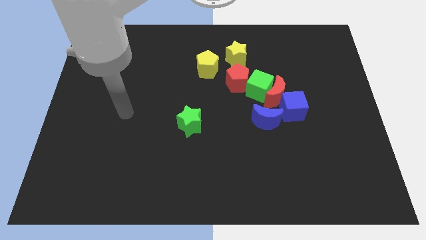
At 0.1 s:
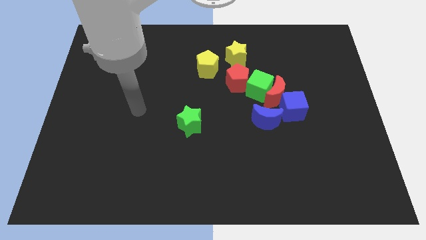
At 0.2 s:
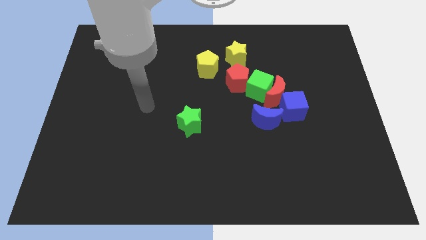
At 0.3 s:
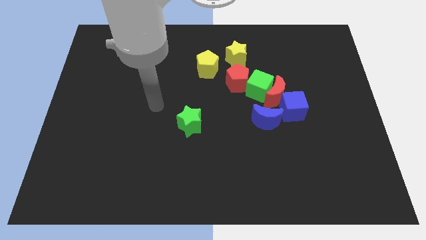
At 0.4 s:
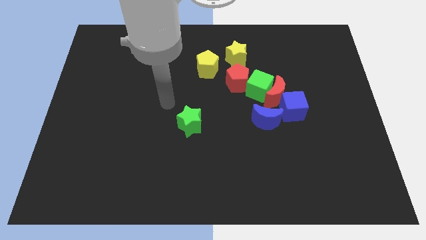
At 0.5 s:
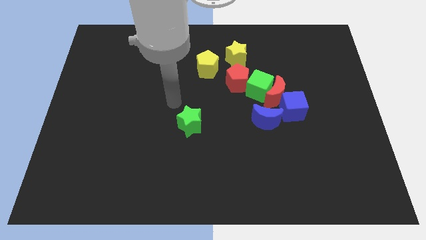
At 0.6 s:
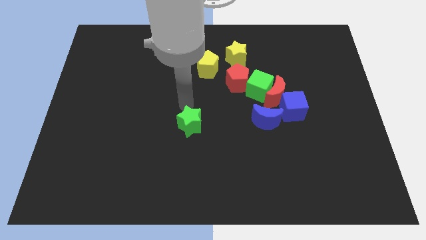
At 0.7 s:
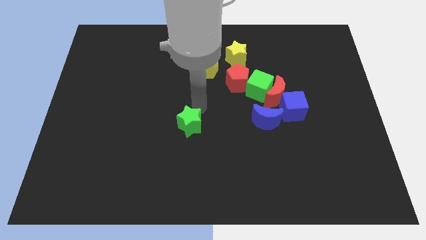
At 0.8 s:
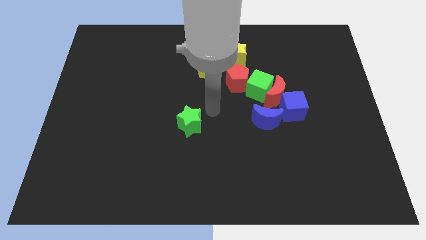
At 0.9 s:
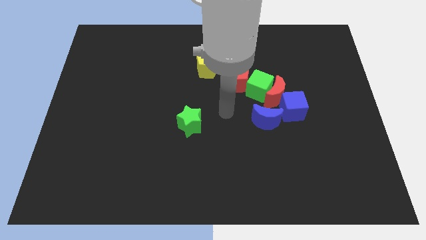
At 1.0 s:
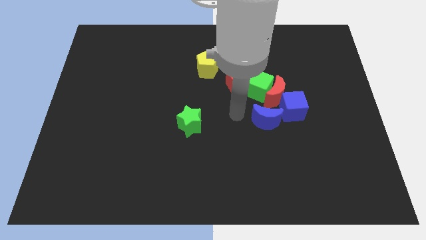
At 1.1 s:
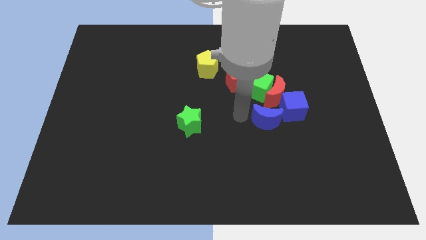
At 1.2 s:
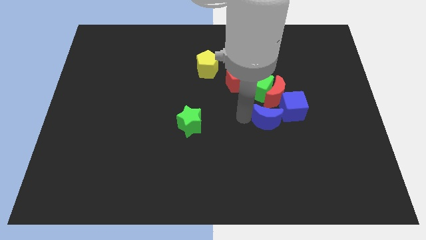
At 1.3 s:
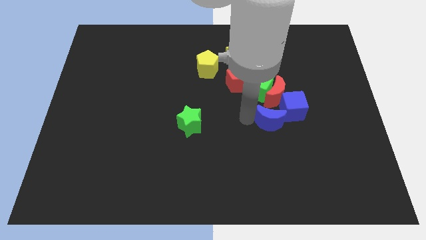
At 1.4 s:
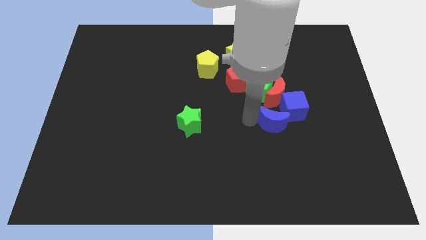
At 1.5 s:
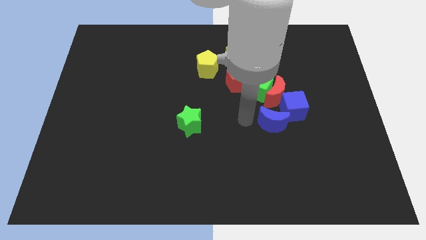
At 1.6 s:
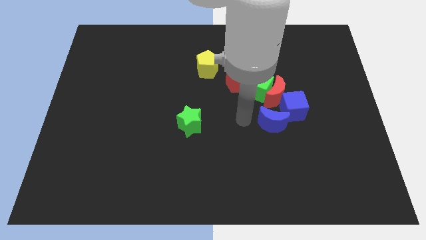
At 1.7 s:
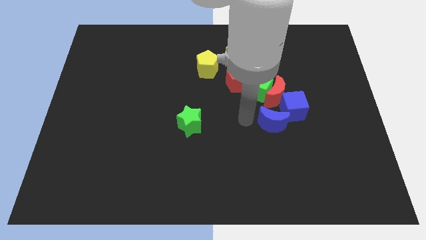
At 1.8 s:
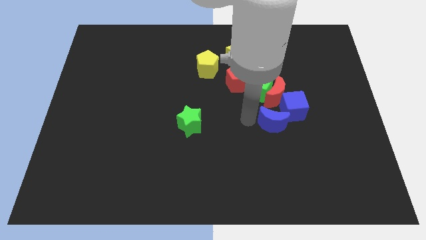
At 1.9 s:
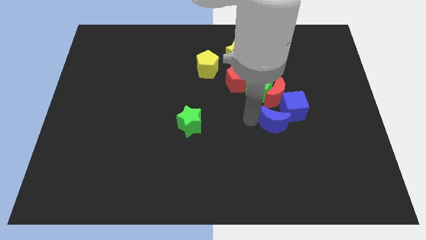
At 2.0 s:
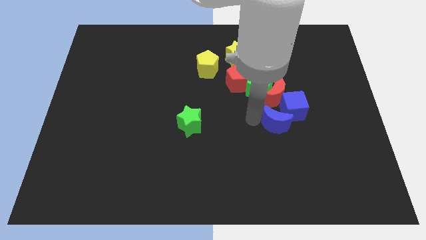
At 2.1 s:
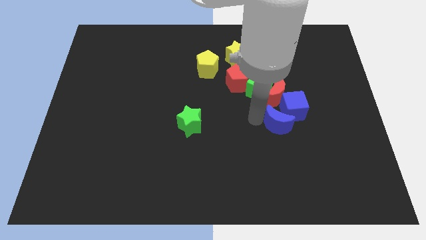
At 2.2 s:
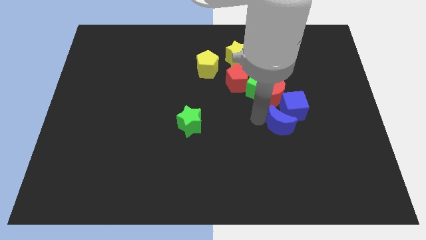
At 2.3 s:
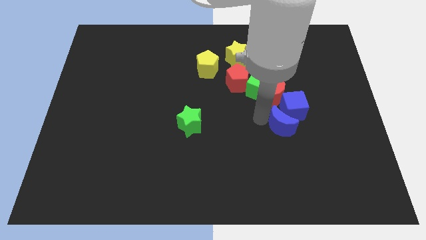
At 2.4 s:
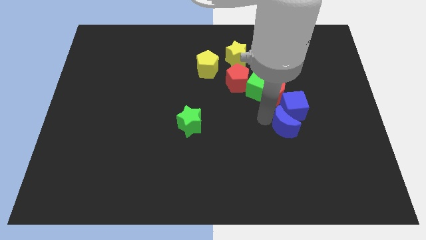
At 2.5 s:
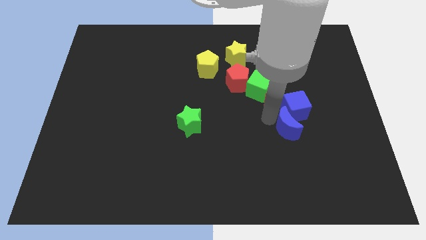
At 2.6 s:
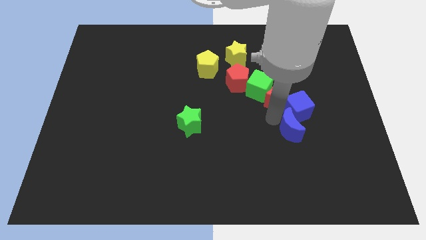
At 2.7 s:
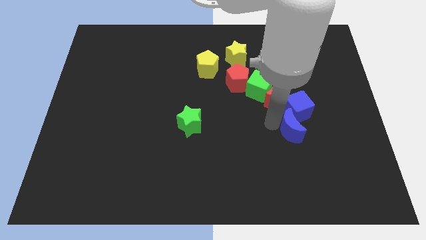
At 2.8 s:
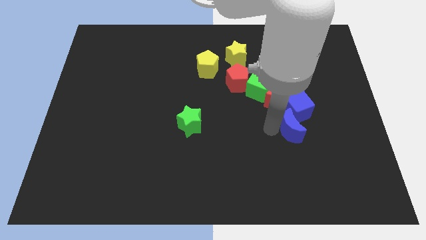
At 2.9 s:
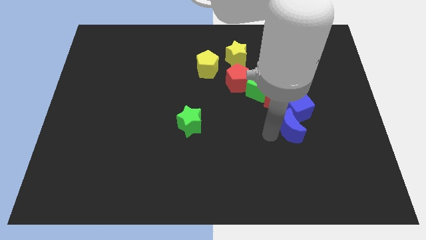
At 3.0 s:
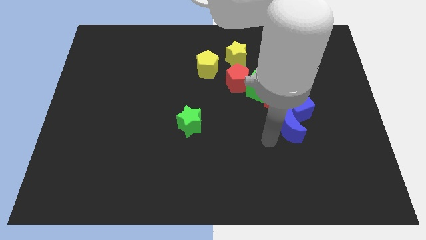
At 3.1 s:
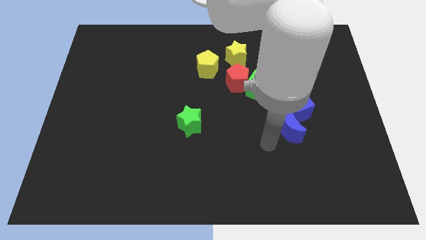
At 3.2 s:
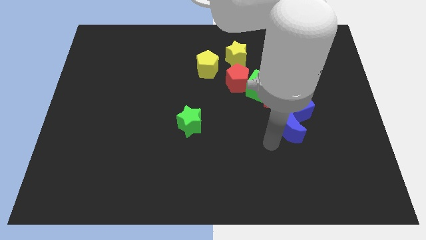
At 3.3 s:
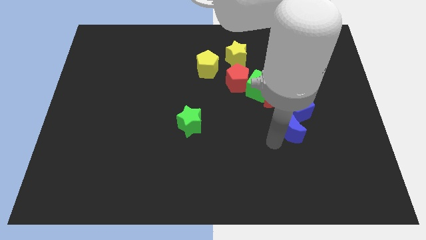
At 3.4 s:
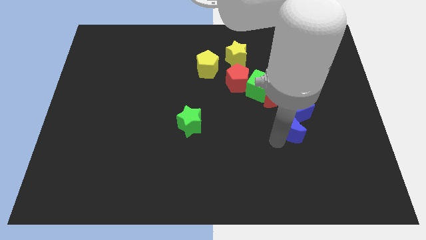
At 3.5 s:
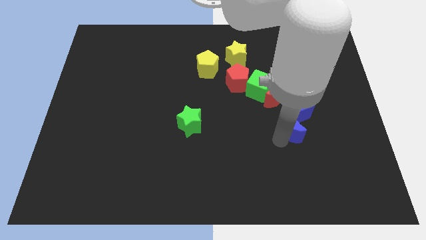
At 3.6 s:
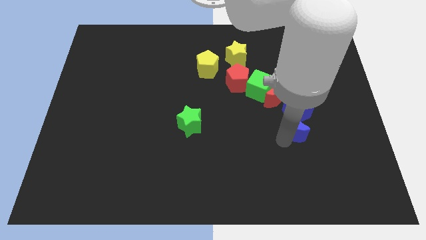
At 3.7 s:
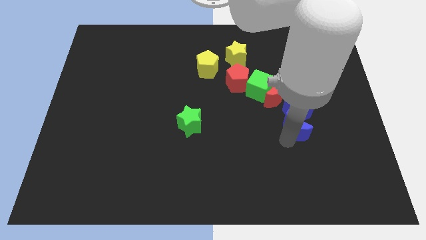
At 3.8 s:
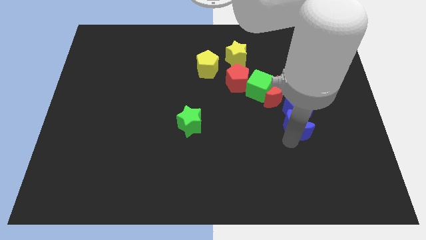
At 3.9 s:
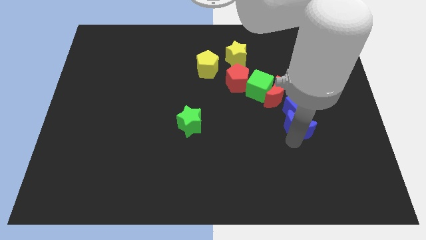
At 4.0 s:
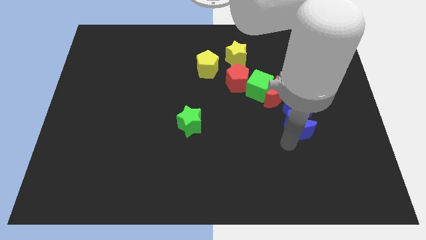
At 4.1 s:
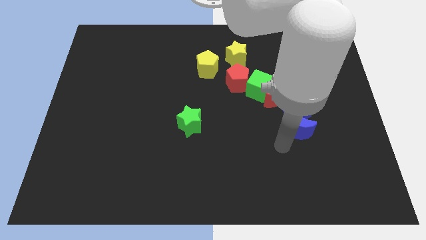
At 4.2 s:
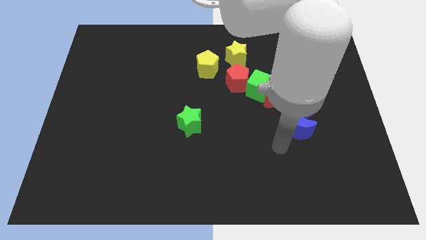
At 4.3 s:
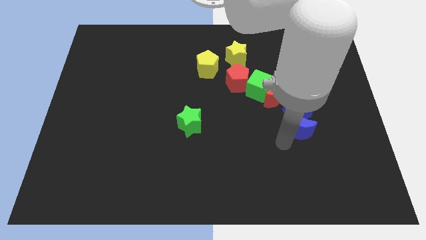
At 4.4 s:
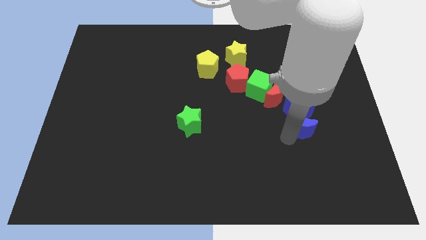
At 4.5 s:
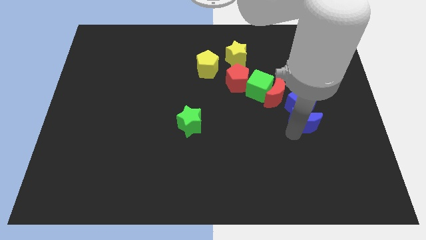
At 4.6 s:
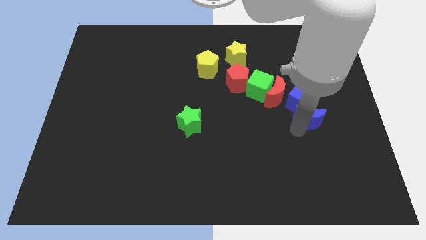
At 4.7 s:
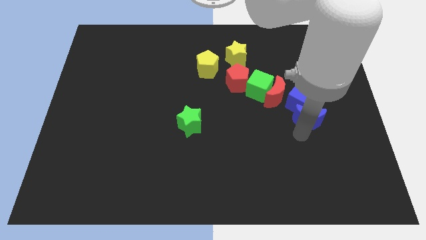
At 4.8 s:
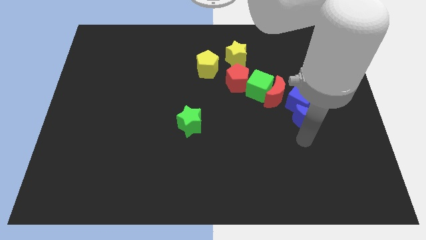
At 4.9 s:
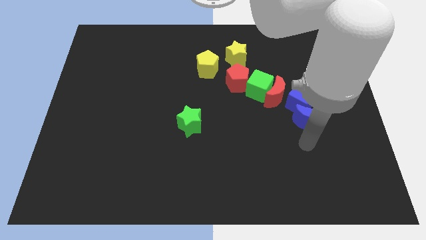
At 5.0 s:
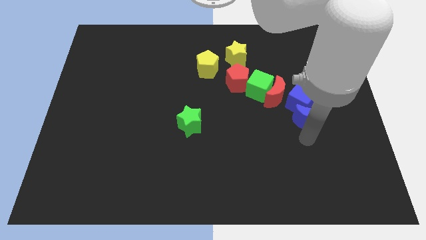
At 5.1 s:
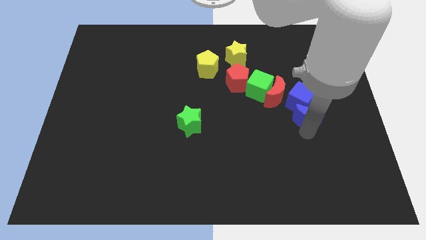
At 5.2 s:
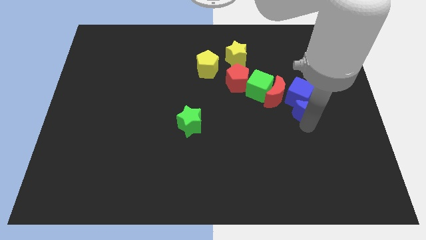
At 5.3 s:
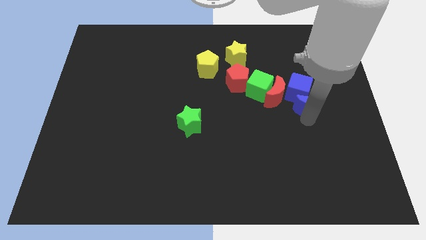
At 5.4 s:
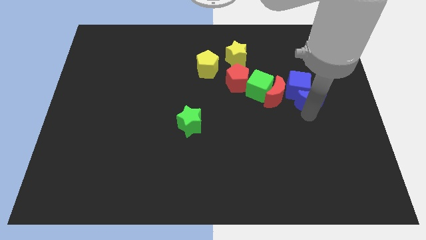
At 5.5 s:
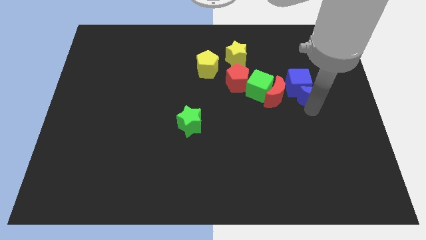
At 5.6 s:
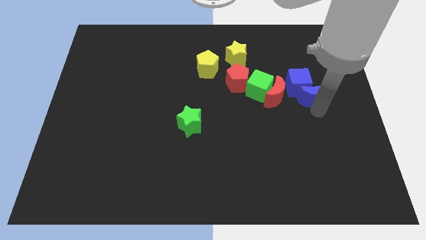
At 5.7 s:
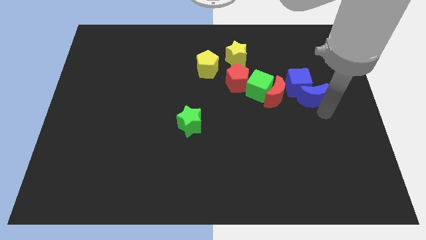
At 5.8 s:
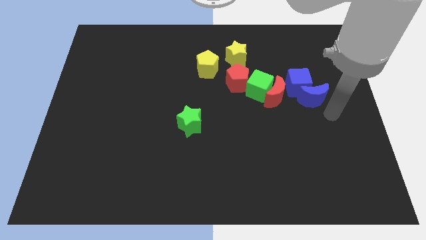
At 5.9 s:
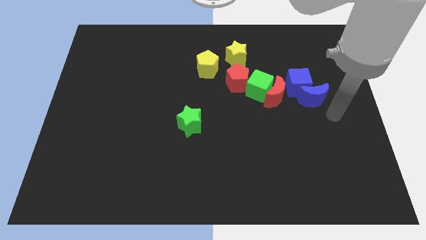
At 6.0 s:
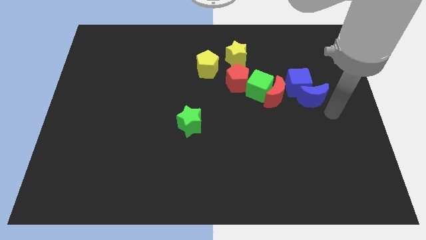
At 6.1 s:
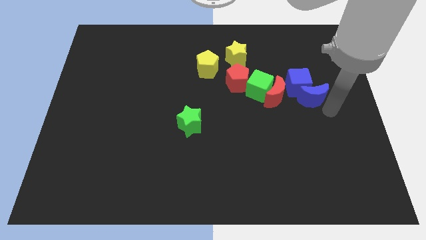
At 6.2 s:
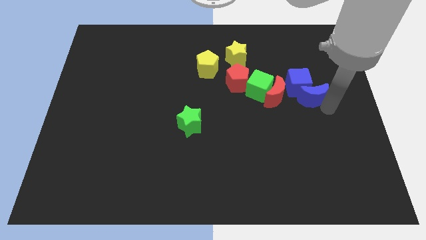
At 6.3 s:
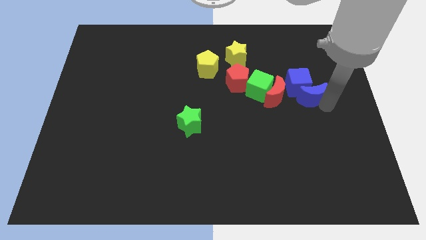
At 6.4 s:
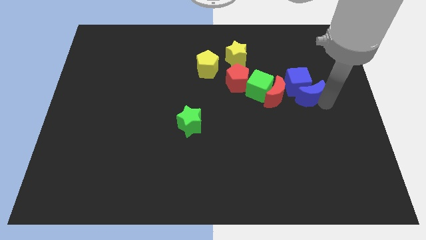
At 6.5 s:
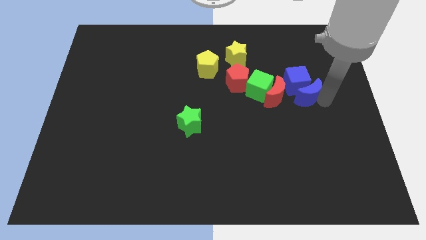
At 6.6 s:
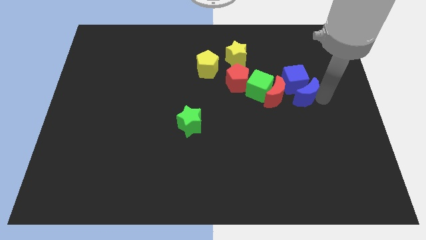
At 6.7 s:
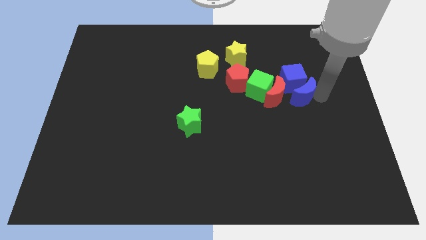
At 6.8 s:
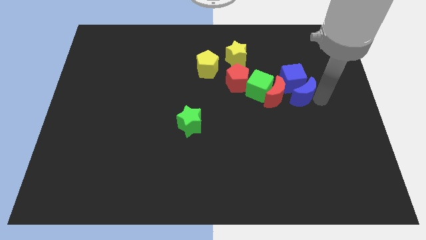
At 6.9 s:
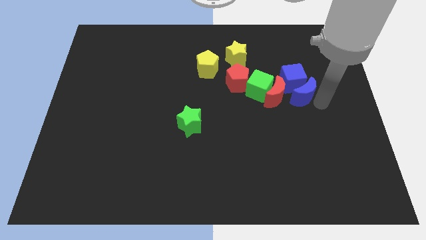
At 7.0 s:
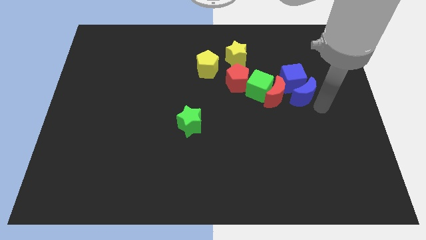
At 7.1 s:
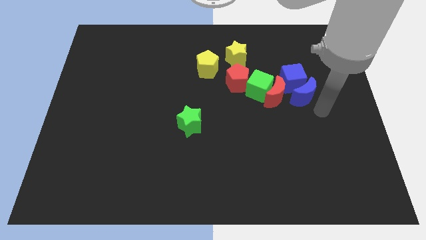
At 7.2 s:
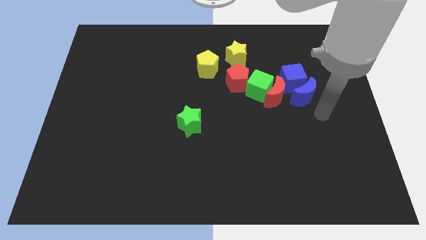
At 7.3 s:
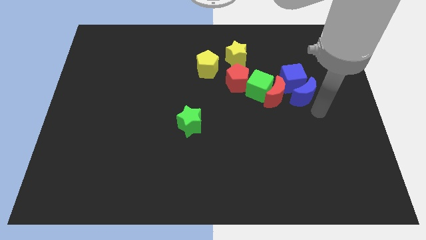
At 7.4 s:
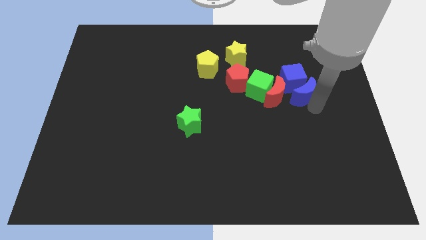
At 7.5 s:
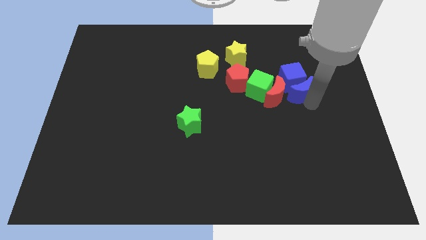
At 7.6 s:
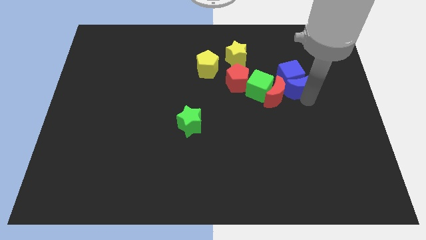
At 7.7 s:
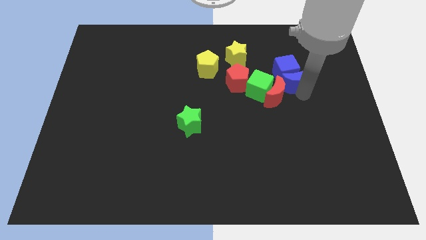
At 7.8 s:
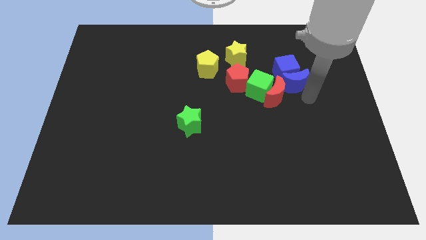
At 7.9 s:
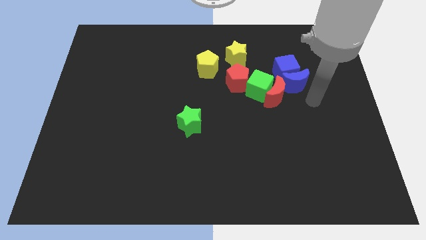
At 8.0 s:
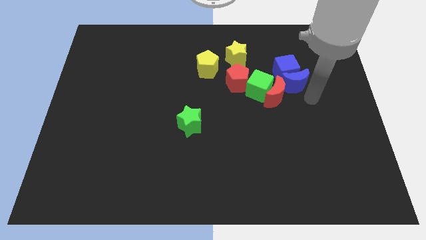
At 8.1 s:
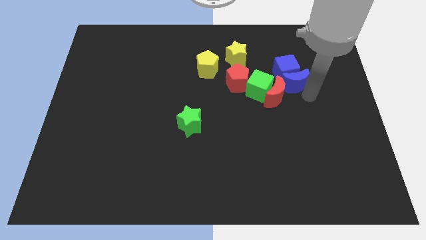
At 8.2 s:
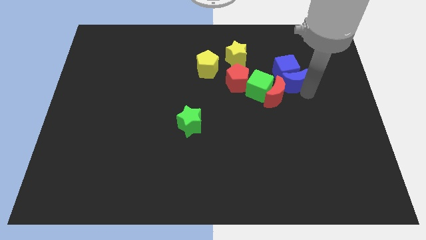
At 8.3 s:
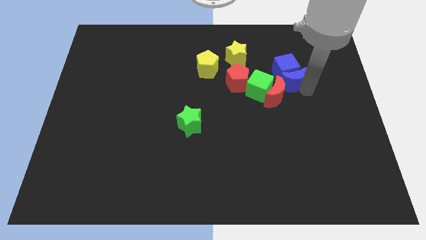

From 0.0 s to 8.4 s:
put the blue moon above the red moon

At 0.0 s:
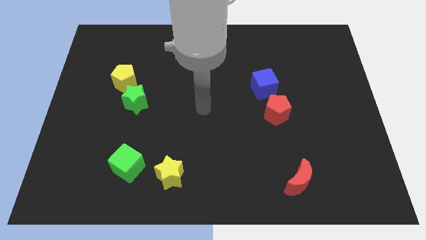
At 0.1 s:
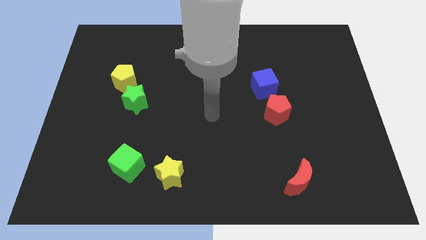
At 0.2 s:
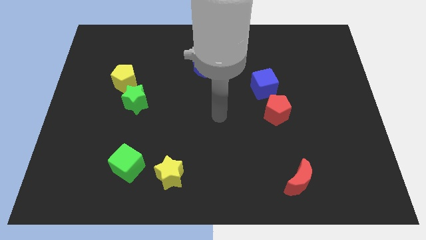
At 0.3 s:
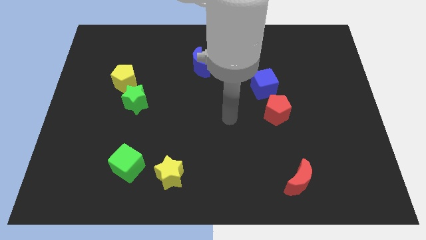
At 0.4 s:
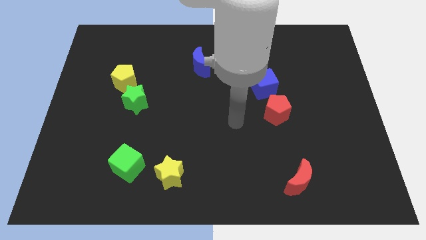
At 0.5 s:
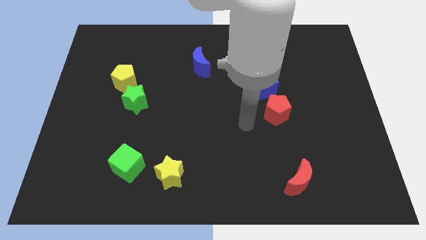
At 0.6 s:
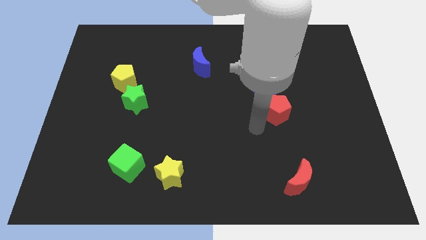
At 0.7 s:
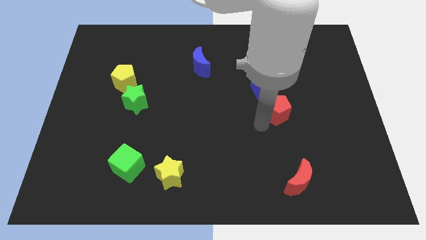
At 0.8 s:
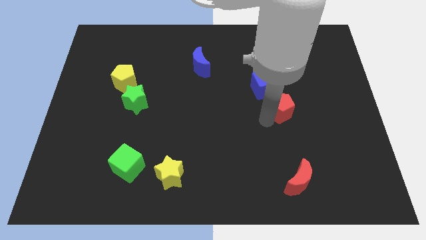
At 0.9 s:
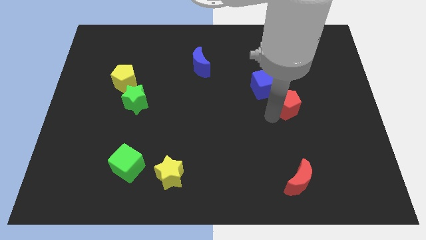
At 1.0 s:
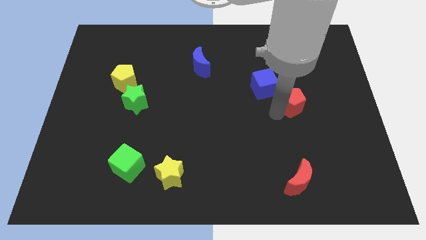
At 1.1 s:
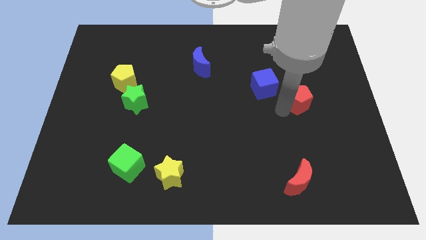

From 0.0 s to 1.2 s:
push the red pentagon right of the blue cube
